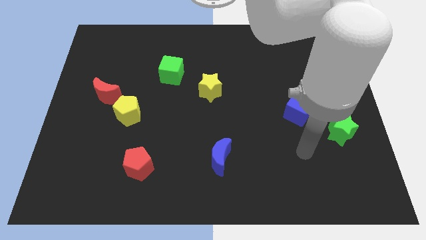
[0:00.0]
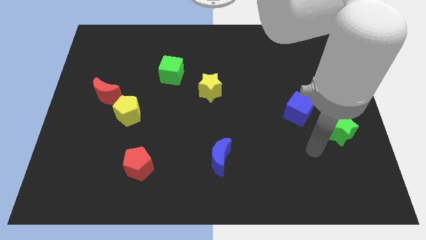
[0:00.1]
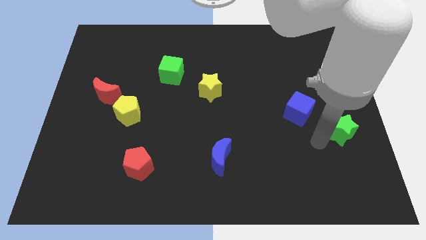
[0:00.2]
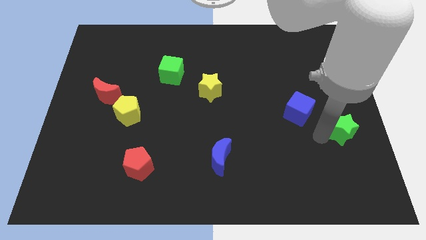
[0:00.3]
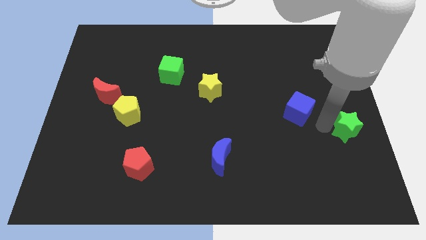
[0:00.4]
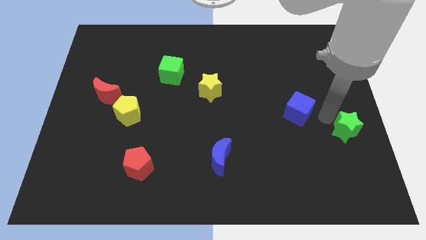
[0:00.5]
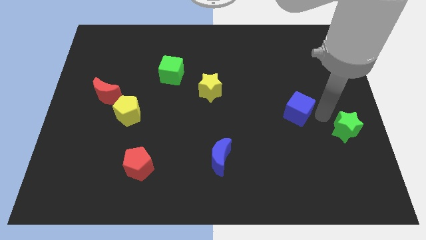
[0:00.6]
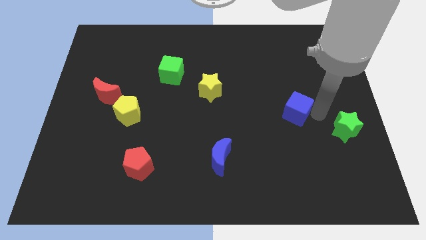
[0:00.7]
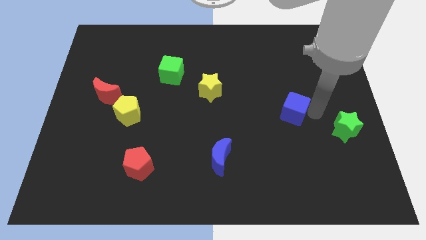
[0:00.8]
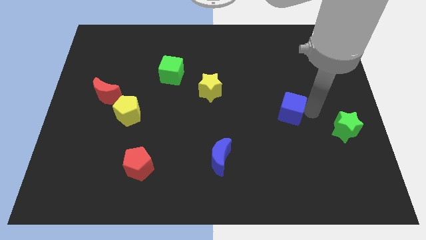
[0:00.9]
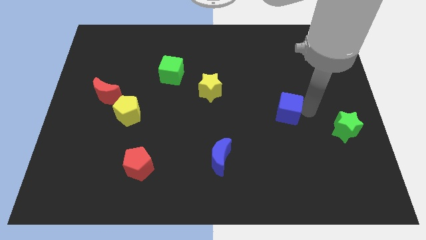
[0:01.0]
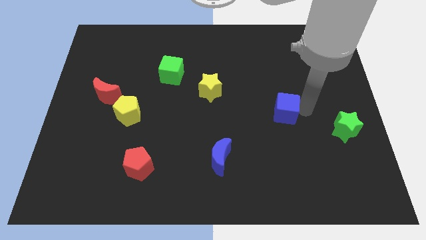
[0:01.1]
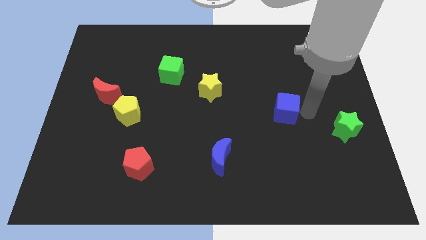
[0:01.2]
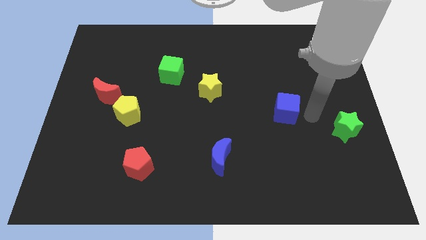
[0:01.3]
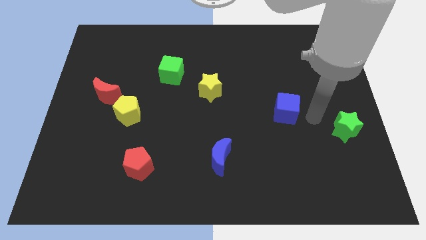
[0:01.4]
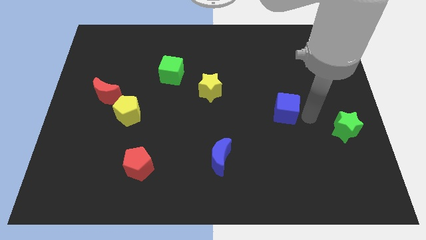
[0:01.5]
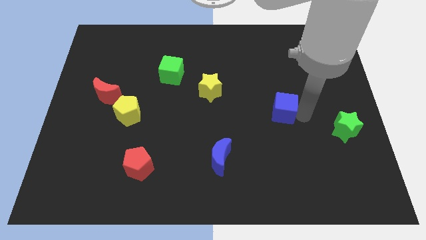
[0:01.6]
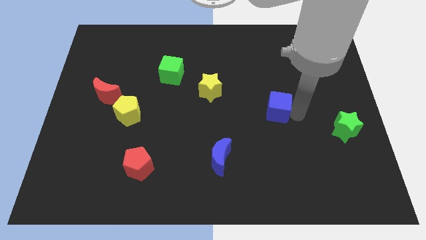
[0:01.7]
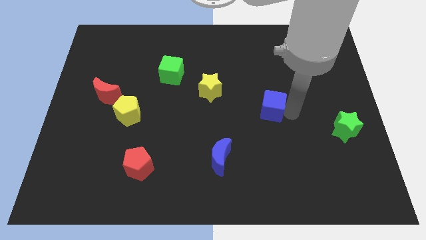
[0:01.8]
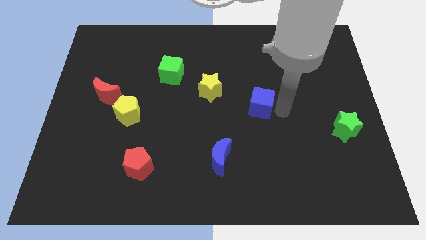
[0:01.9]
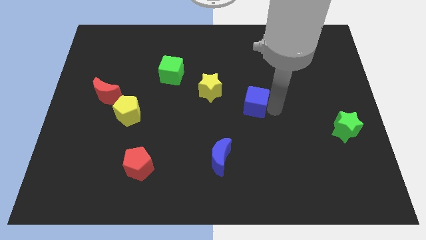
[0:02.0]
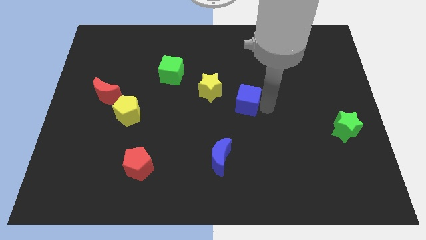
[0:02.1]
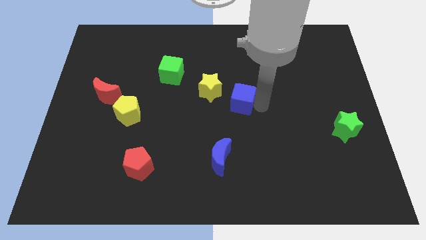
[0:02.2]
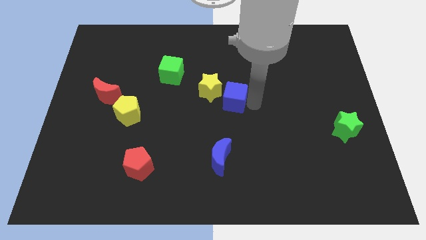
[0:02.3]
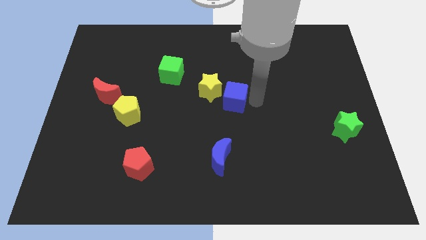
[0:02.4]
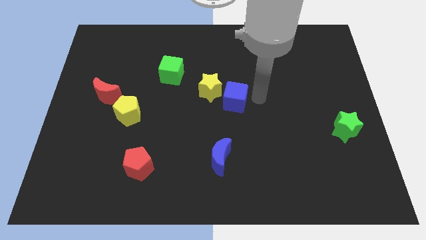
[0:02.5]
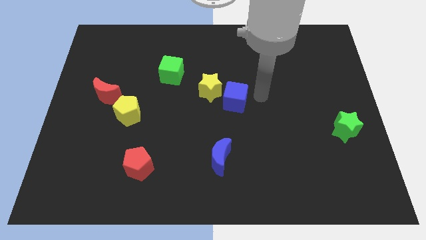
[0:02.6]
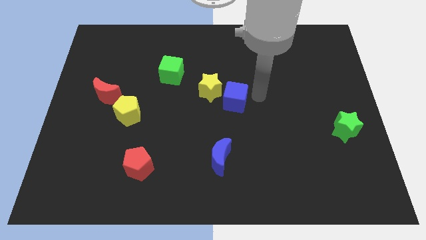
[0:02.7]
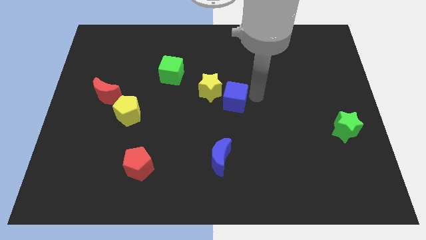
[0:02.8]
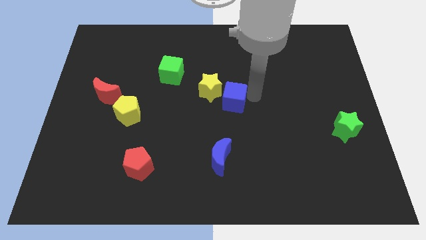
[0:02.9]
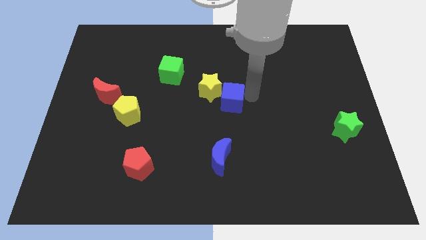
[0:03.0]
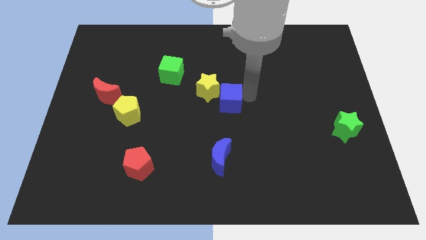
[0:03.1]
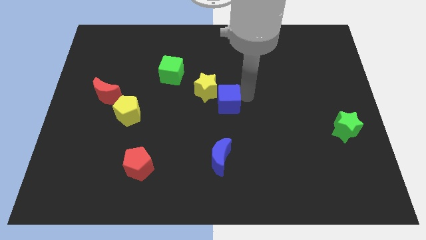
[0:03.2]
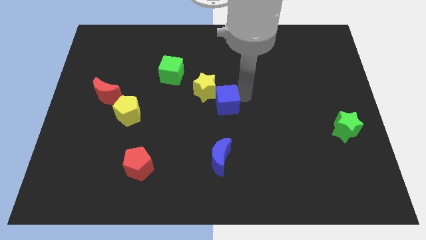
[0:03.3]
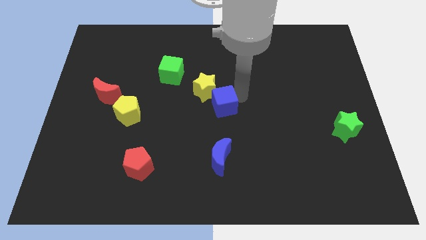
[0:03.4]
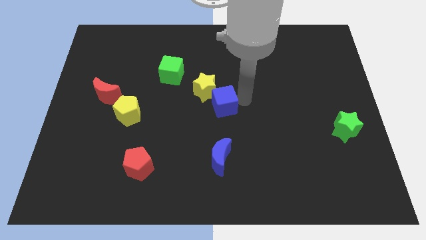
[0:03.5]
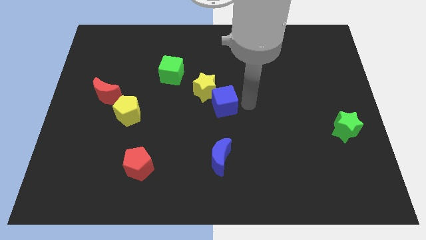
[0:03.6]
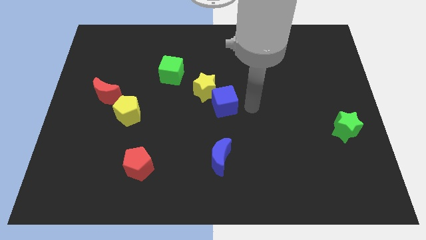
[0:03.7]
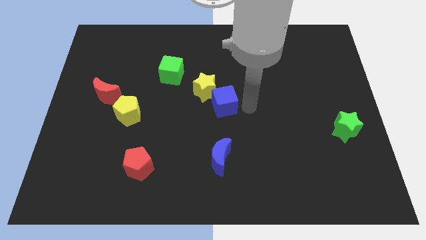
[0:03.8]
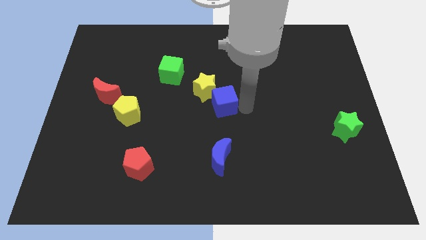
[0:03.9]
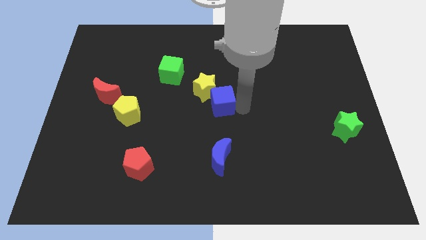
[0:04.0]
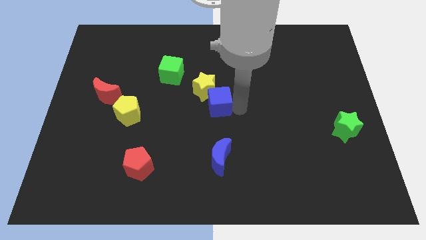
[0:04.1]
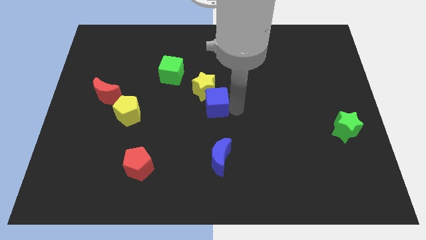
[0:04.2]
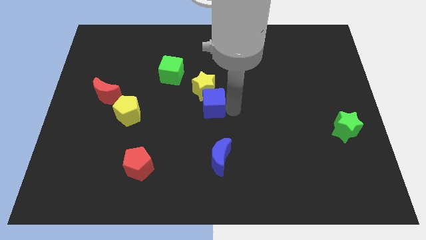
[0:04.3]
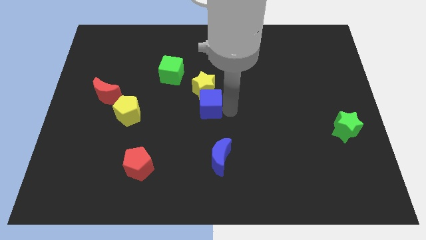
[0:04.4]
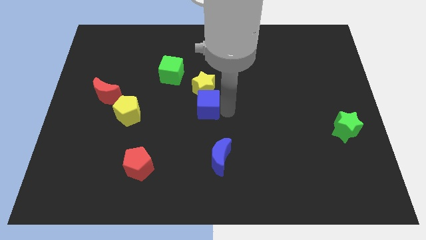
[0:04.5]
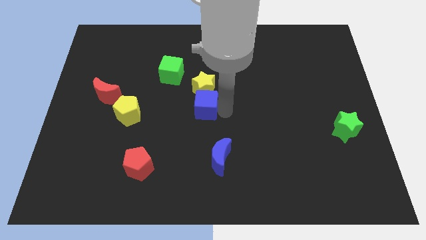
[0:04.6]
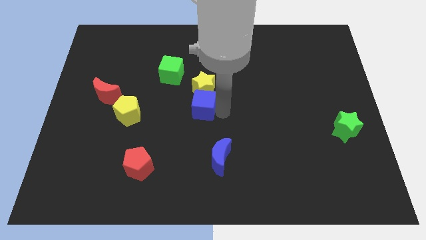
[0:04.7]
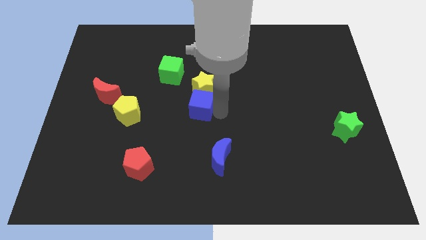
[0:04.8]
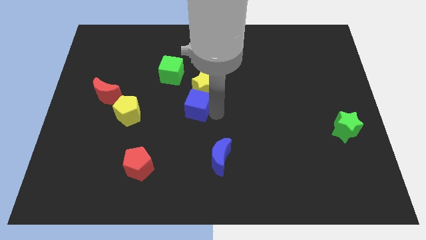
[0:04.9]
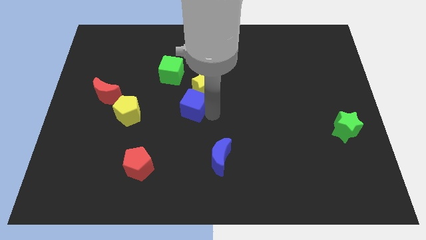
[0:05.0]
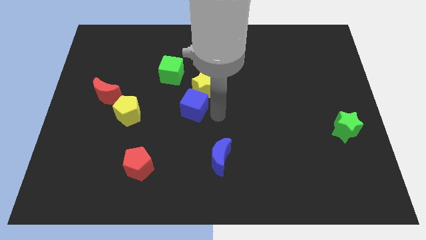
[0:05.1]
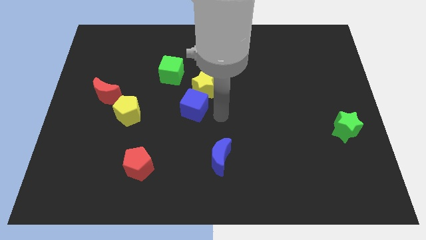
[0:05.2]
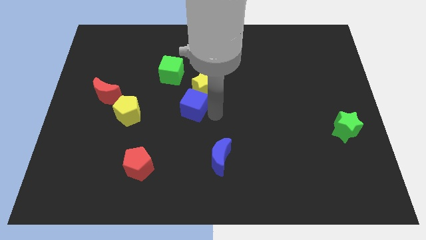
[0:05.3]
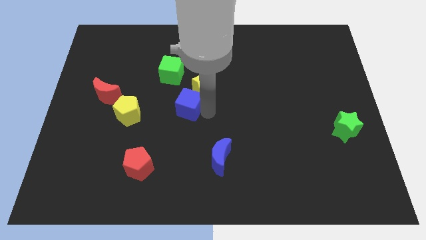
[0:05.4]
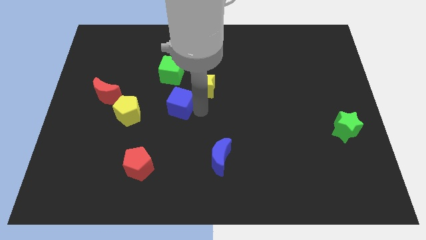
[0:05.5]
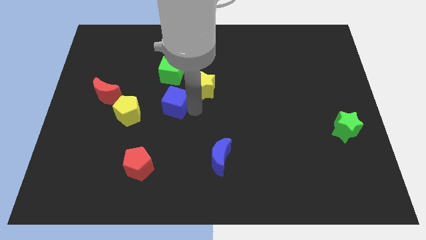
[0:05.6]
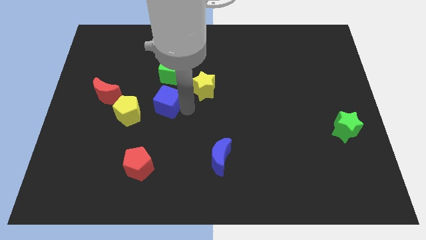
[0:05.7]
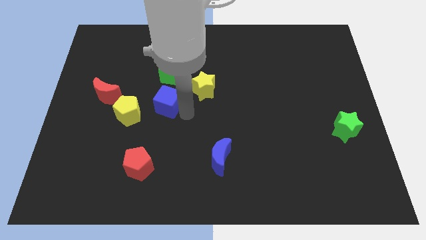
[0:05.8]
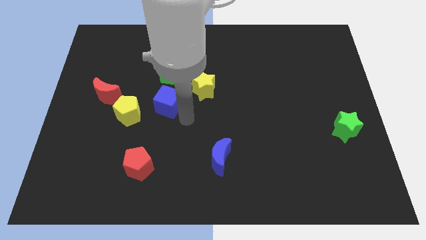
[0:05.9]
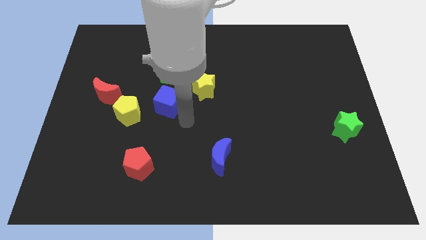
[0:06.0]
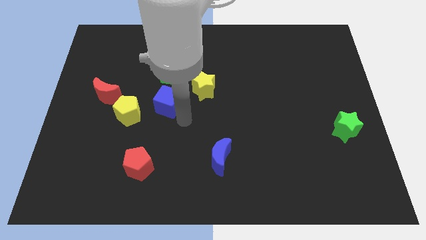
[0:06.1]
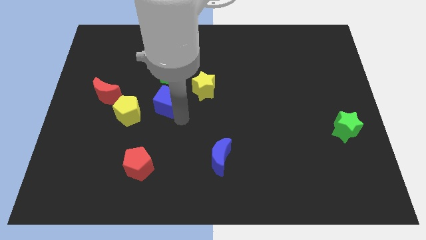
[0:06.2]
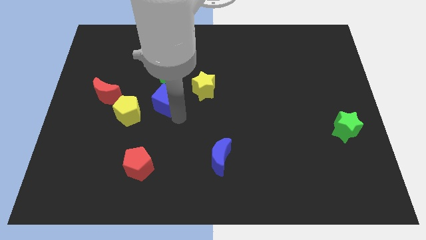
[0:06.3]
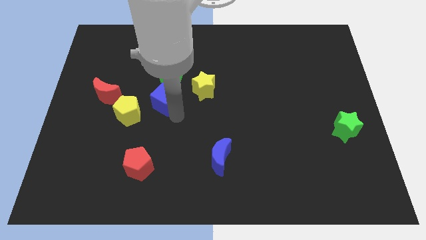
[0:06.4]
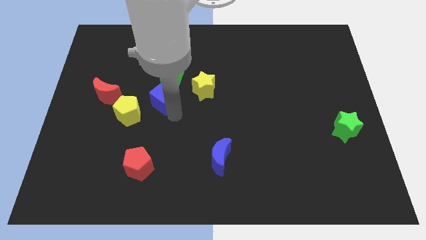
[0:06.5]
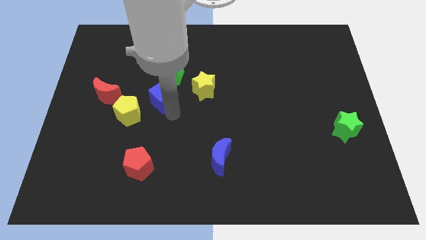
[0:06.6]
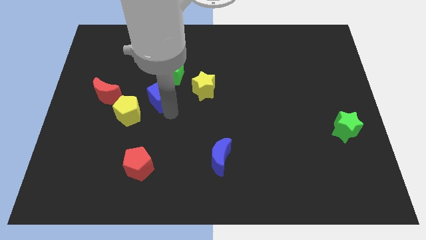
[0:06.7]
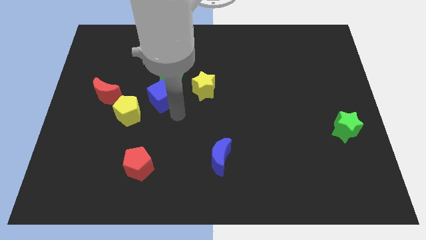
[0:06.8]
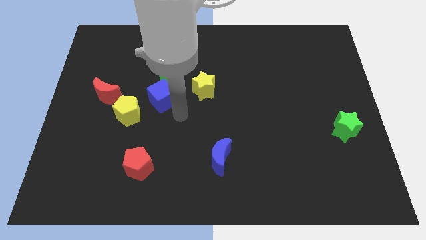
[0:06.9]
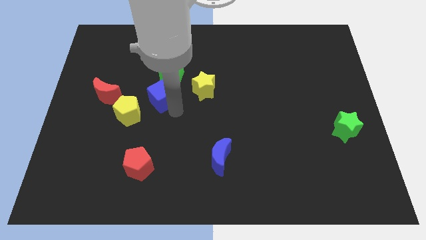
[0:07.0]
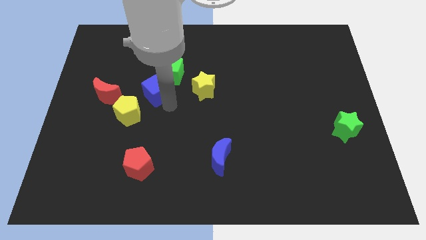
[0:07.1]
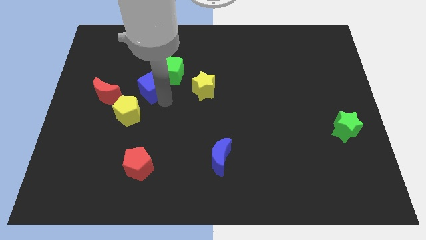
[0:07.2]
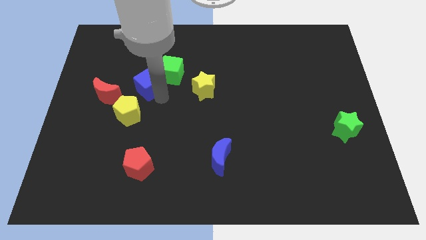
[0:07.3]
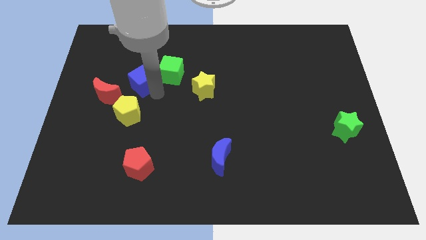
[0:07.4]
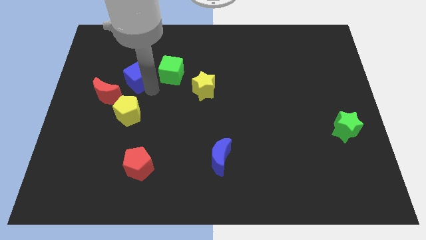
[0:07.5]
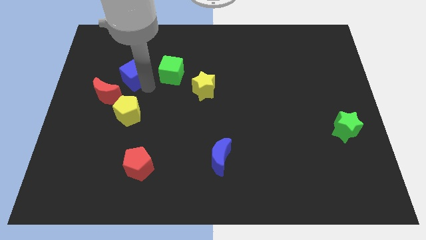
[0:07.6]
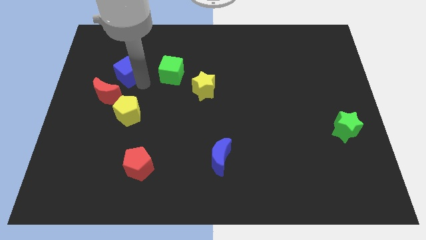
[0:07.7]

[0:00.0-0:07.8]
slide the blue cube to the top side of the red moon
